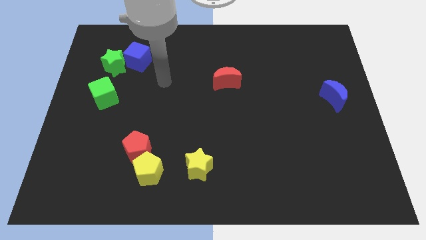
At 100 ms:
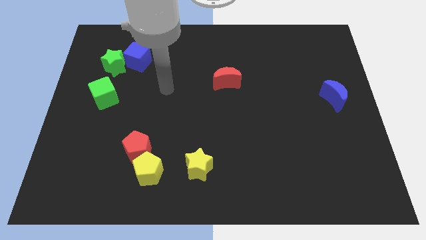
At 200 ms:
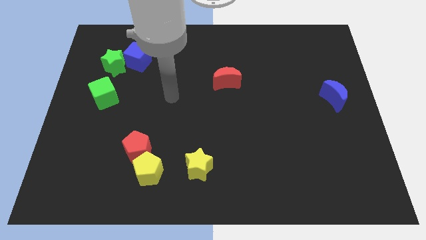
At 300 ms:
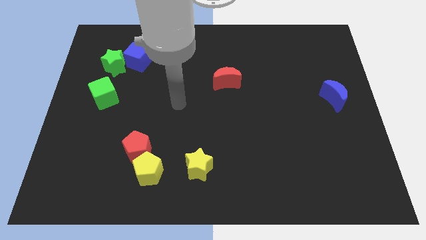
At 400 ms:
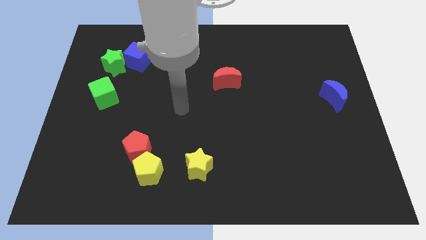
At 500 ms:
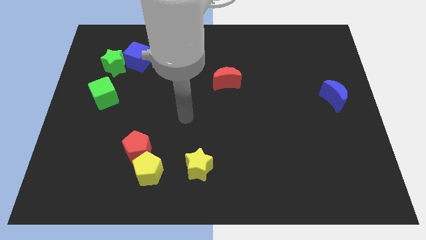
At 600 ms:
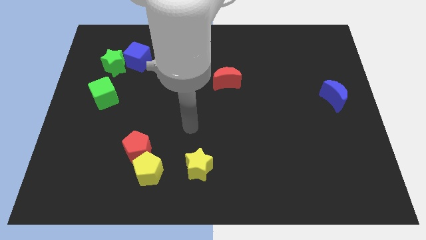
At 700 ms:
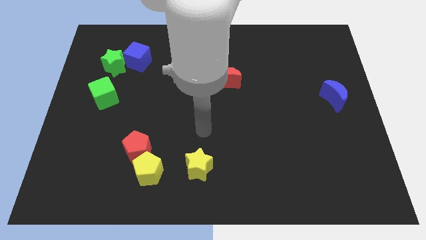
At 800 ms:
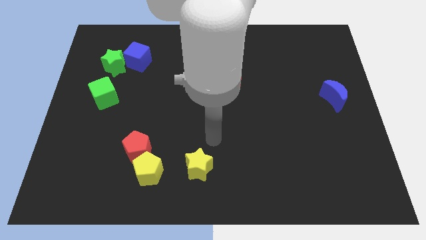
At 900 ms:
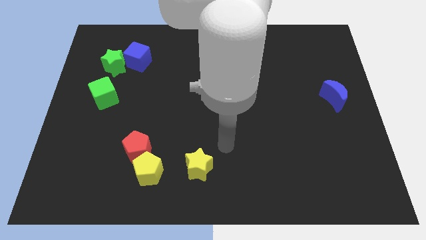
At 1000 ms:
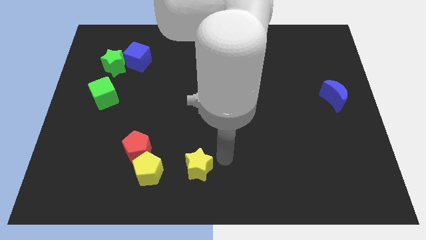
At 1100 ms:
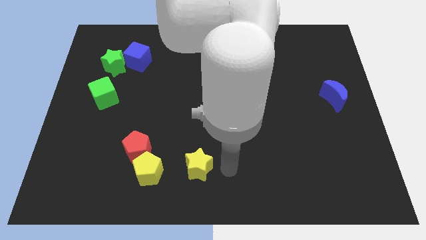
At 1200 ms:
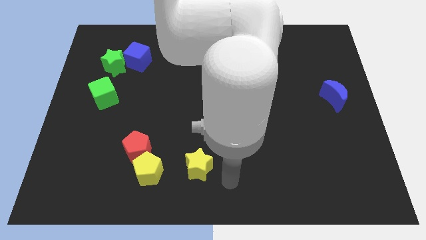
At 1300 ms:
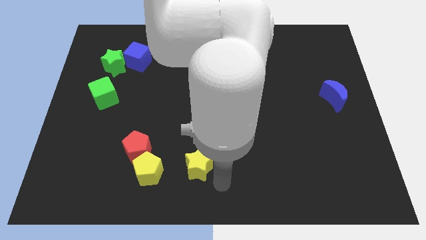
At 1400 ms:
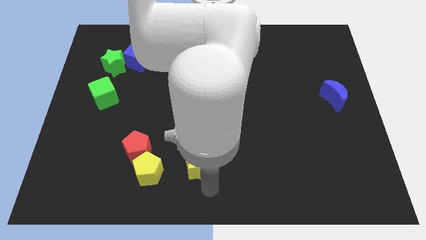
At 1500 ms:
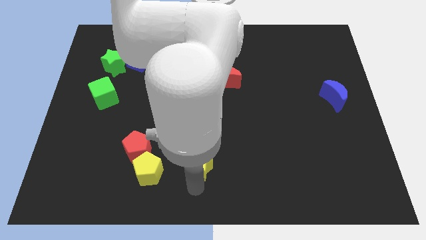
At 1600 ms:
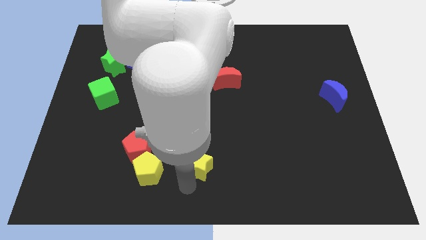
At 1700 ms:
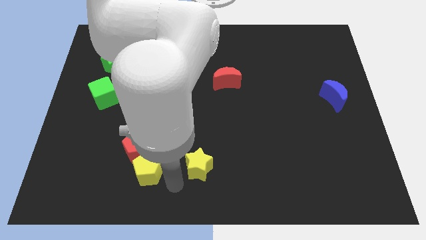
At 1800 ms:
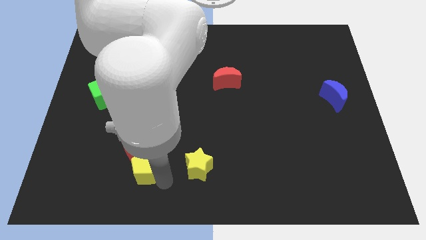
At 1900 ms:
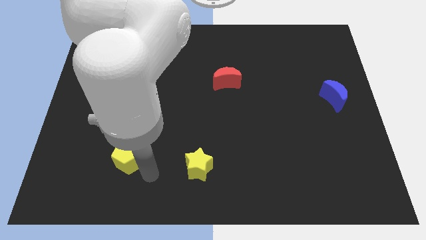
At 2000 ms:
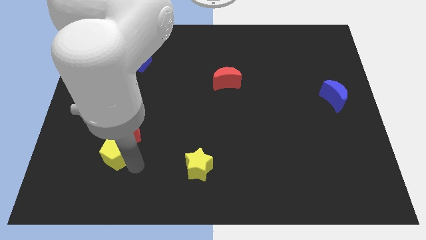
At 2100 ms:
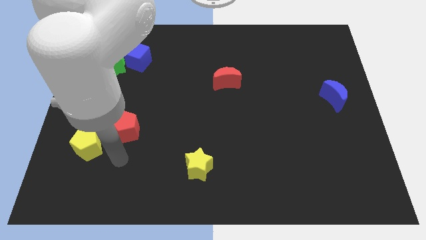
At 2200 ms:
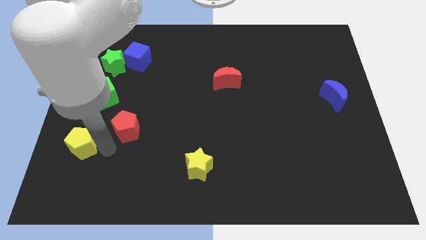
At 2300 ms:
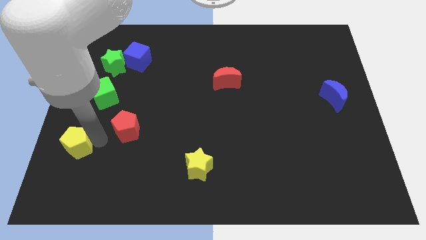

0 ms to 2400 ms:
separate the red pentagon from the yellow pentagon

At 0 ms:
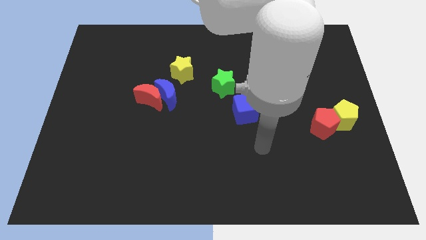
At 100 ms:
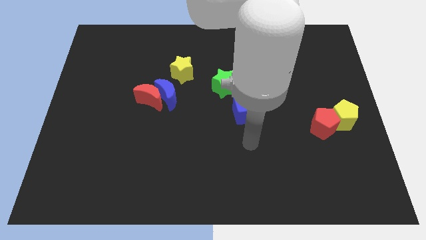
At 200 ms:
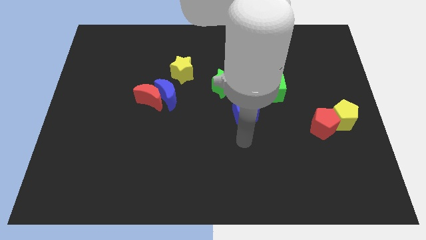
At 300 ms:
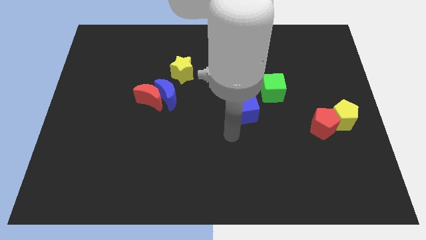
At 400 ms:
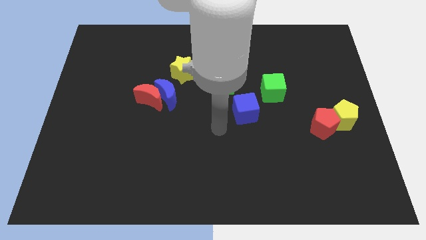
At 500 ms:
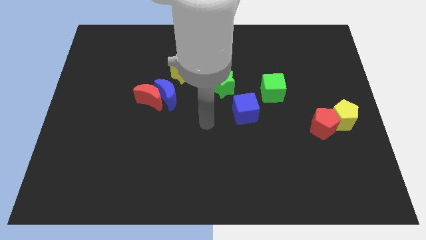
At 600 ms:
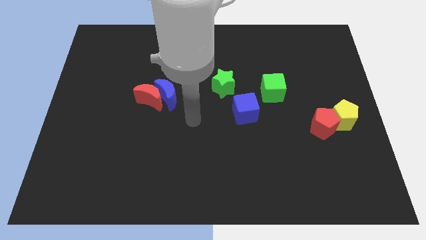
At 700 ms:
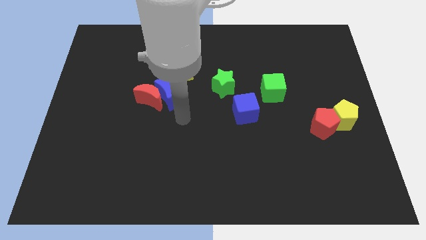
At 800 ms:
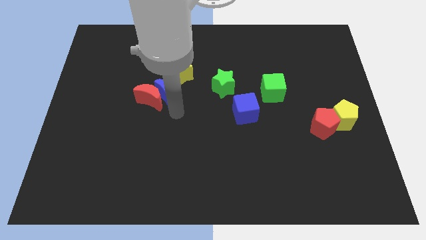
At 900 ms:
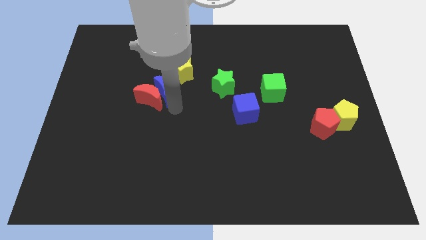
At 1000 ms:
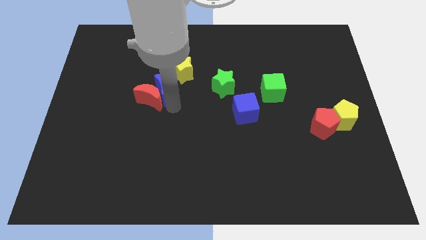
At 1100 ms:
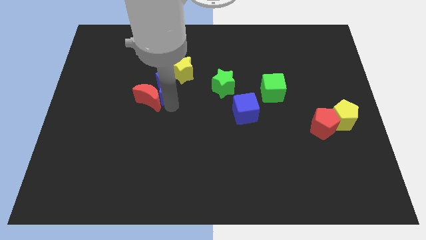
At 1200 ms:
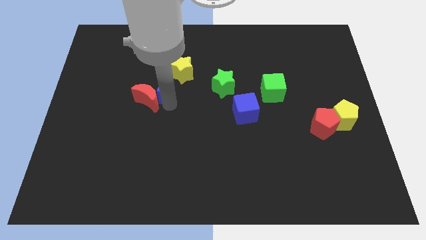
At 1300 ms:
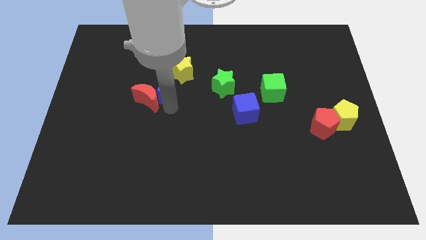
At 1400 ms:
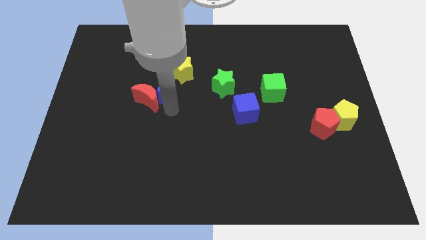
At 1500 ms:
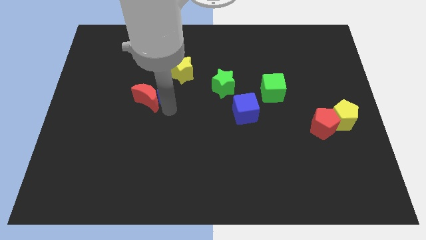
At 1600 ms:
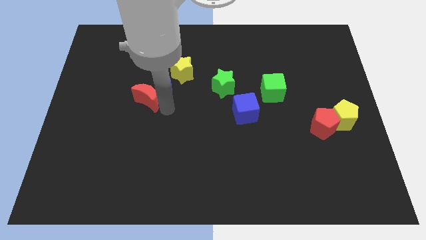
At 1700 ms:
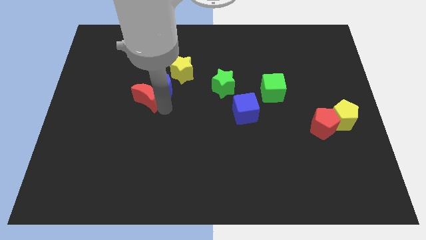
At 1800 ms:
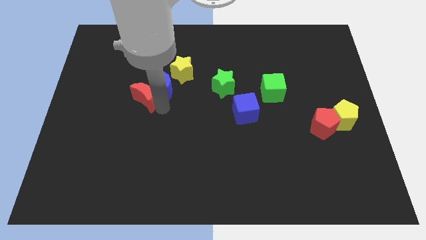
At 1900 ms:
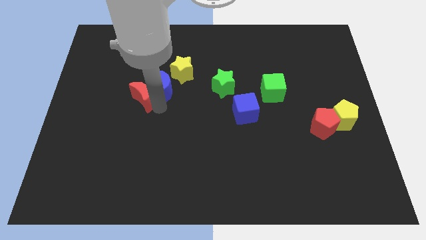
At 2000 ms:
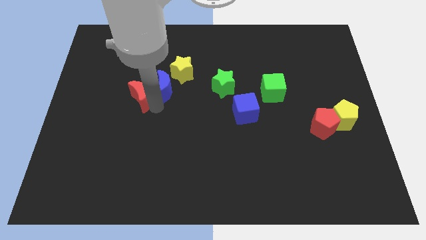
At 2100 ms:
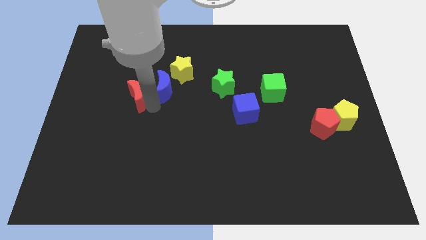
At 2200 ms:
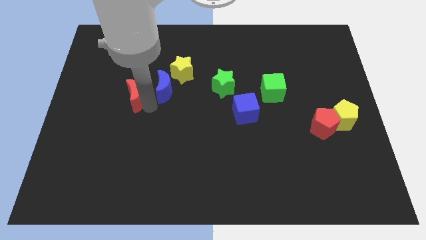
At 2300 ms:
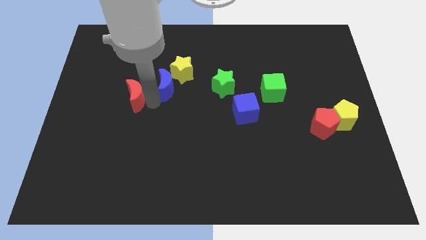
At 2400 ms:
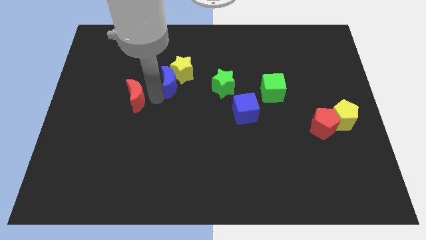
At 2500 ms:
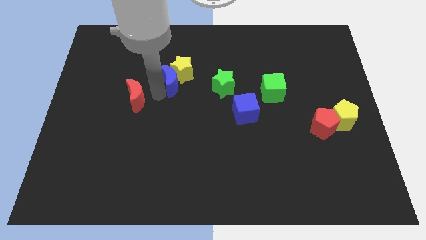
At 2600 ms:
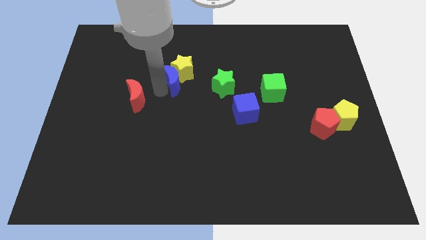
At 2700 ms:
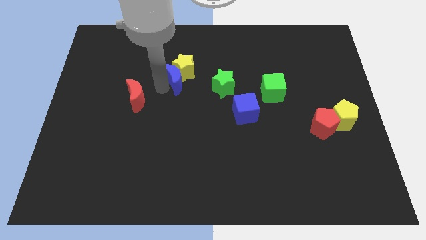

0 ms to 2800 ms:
separate the red moon from the blue moon

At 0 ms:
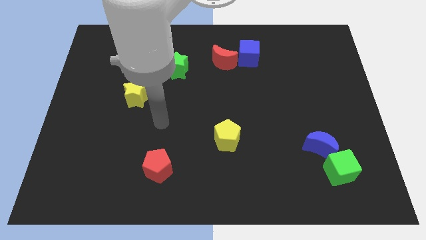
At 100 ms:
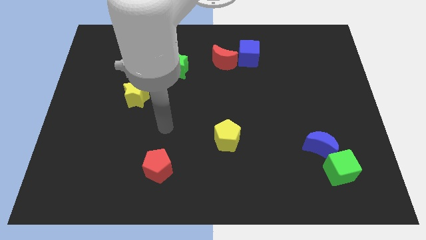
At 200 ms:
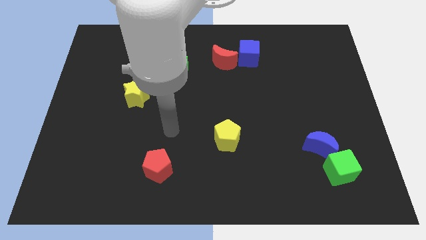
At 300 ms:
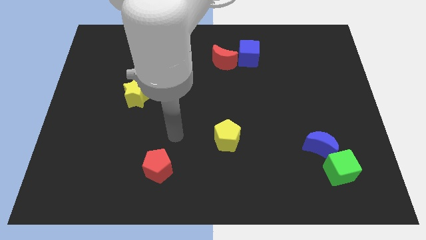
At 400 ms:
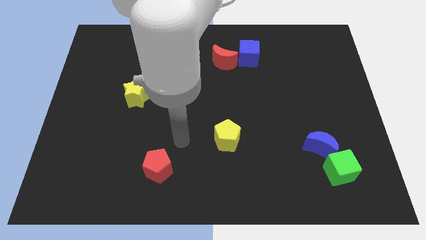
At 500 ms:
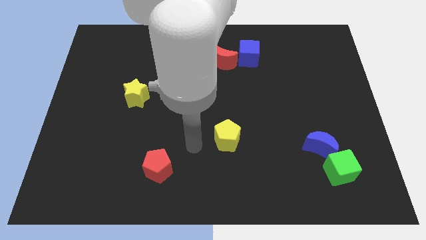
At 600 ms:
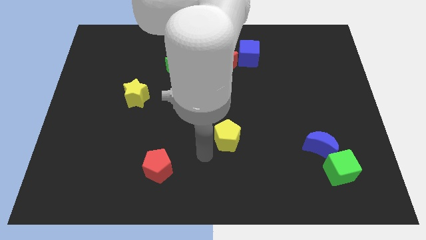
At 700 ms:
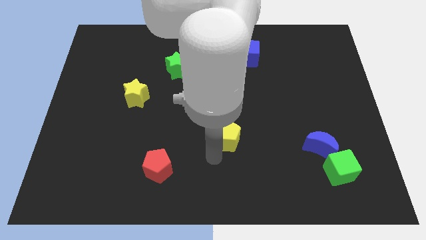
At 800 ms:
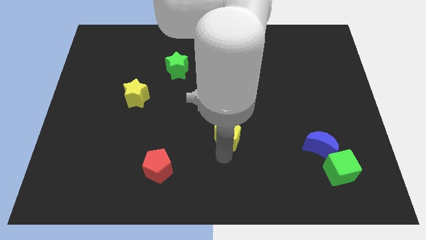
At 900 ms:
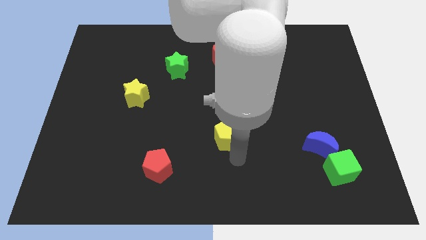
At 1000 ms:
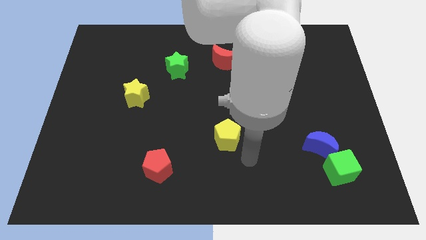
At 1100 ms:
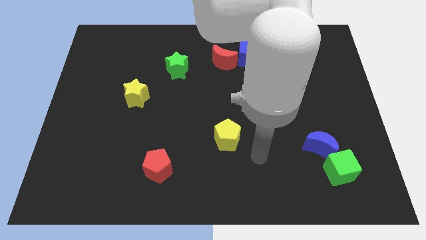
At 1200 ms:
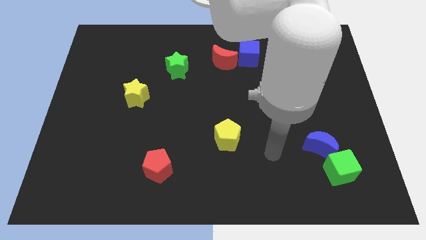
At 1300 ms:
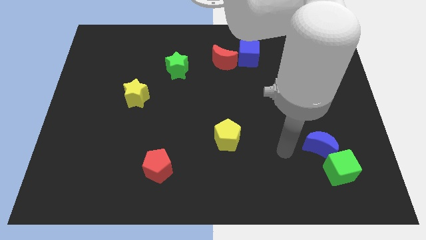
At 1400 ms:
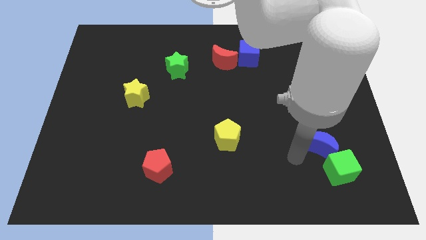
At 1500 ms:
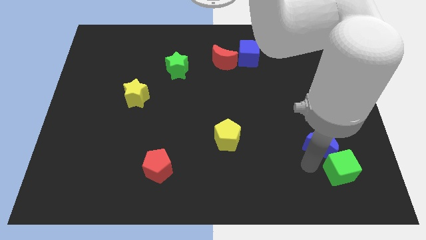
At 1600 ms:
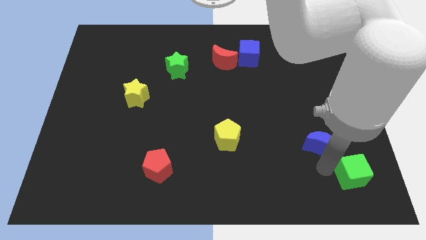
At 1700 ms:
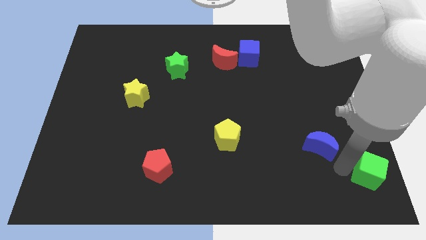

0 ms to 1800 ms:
separate the blue moon from the green cube

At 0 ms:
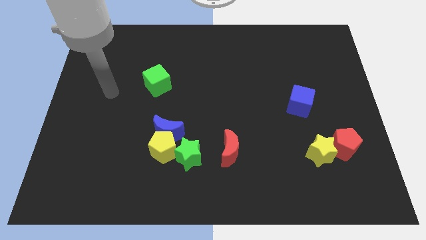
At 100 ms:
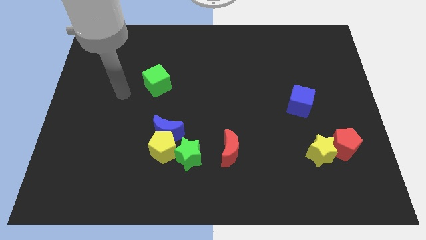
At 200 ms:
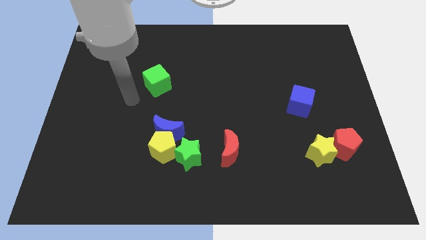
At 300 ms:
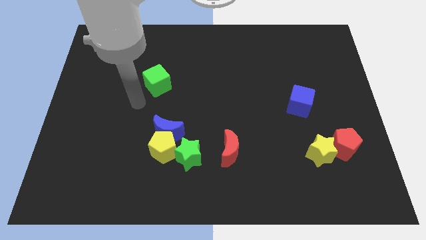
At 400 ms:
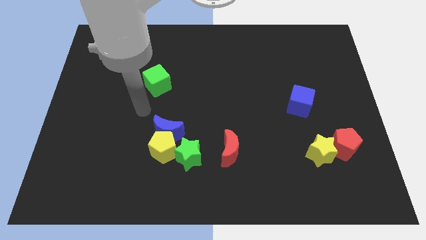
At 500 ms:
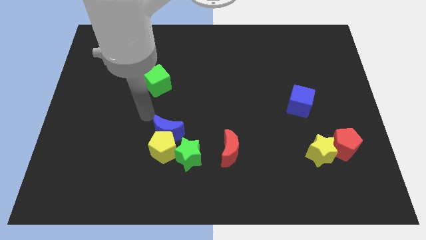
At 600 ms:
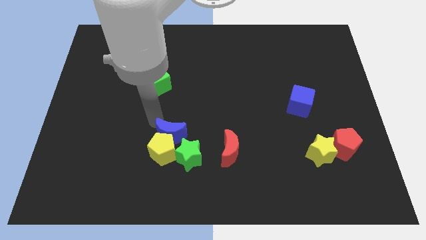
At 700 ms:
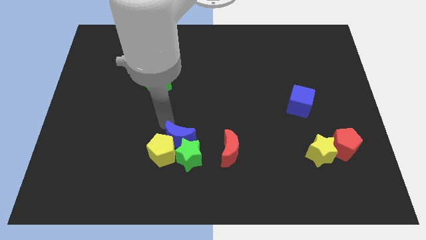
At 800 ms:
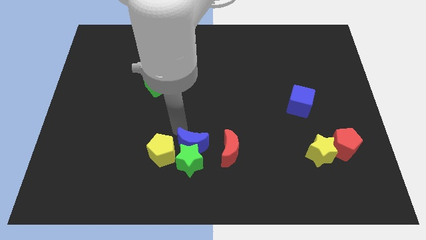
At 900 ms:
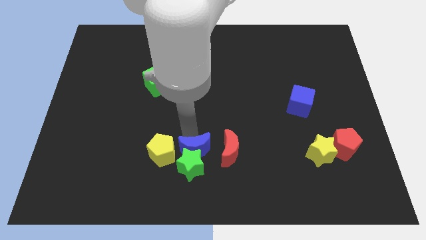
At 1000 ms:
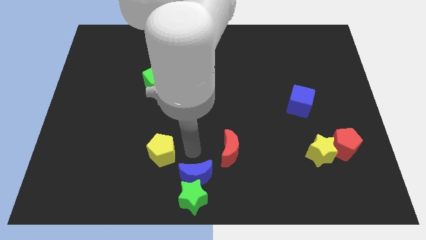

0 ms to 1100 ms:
move the yellow pentagon away from the blue moon and green star

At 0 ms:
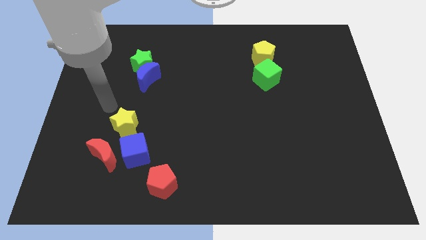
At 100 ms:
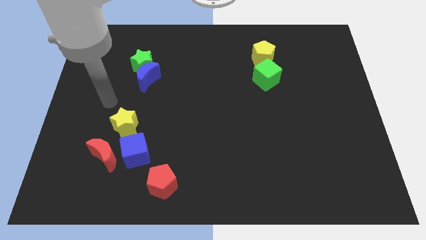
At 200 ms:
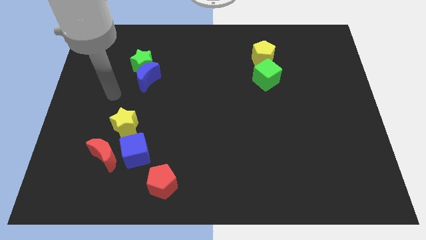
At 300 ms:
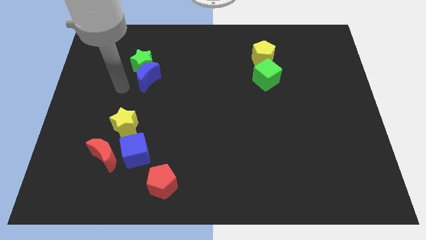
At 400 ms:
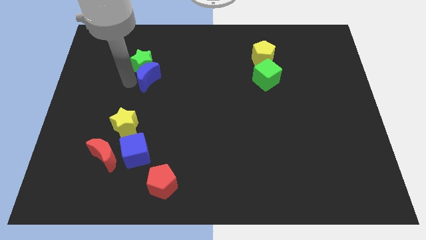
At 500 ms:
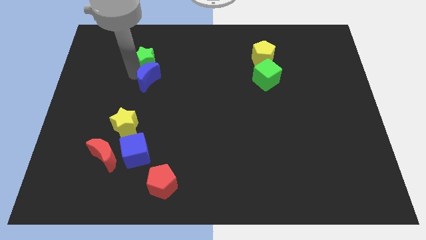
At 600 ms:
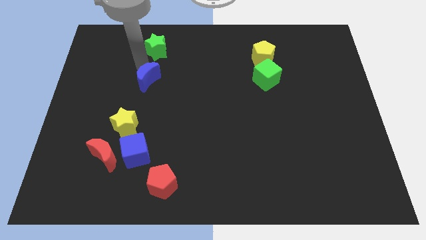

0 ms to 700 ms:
move the blue moon away from the green star

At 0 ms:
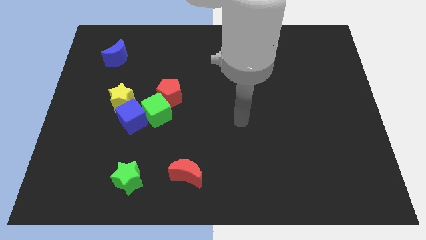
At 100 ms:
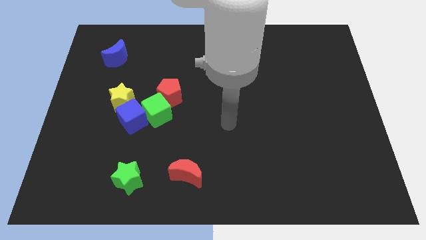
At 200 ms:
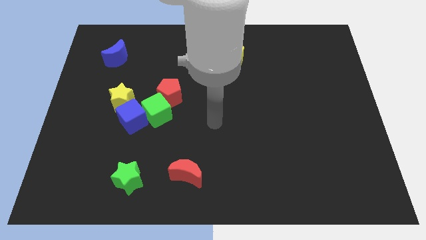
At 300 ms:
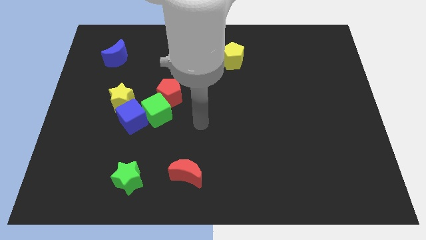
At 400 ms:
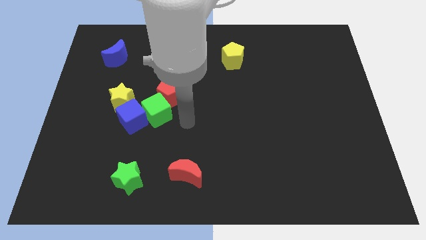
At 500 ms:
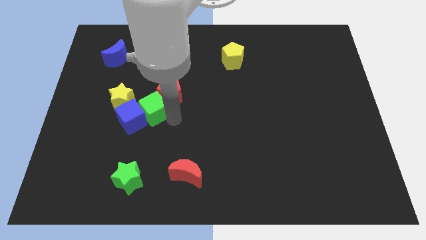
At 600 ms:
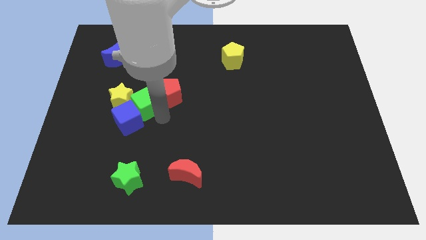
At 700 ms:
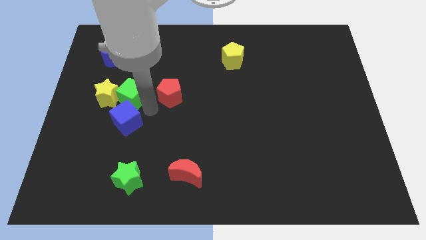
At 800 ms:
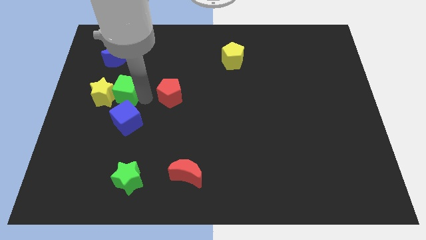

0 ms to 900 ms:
move the red pentagon away from the green cube
